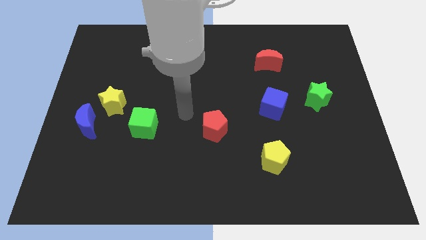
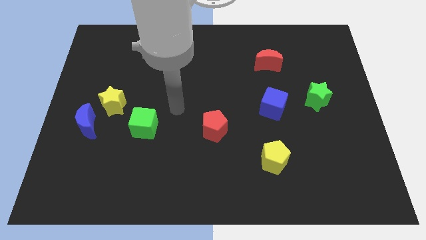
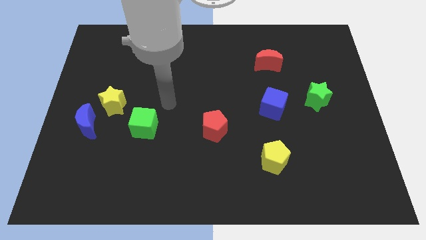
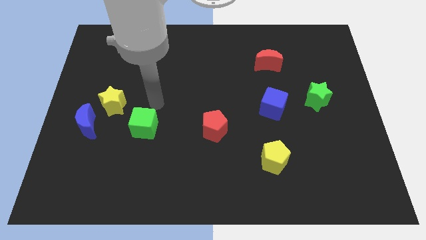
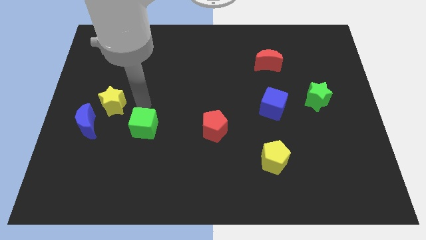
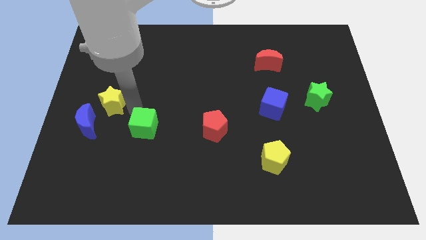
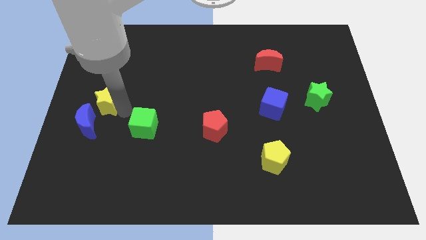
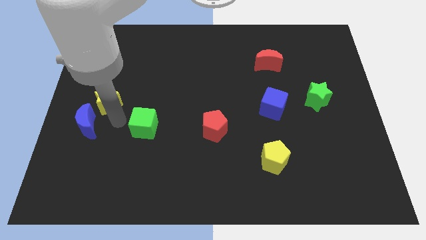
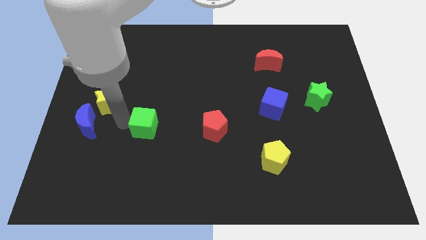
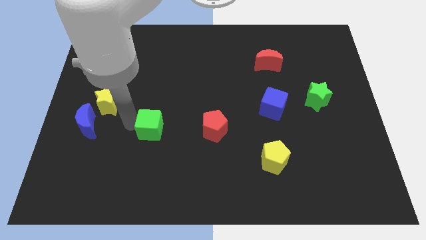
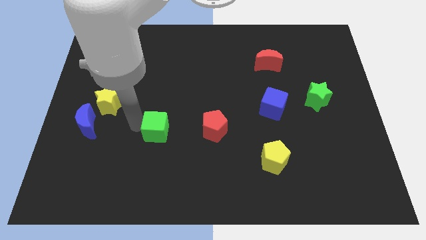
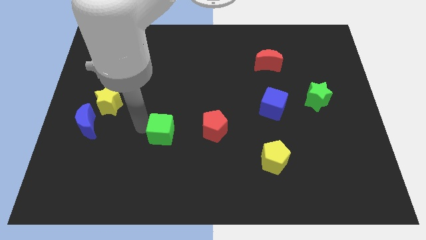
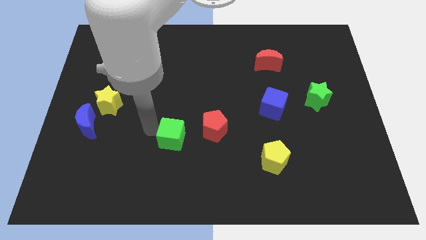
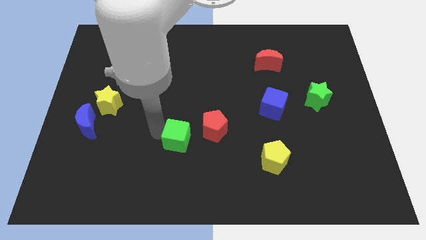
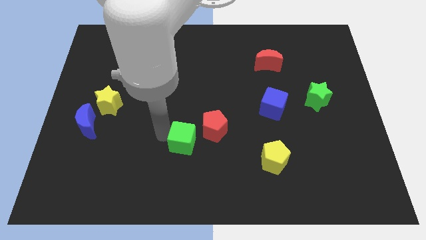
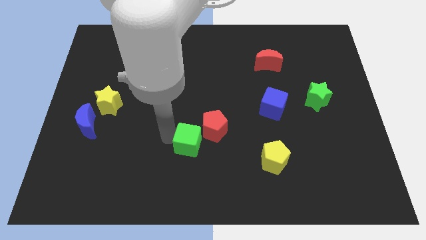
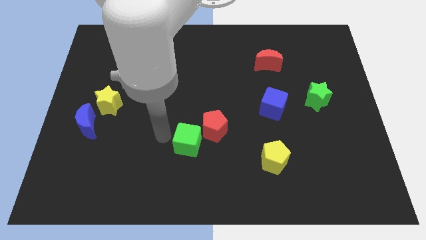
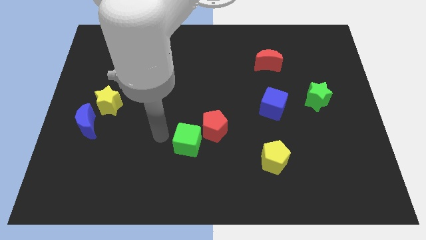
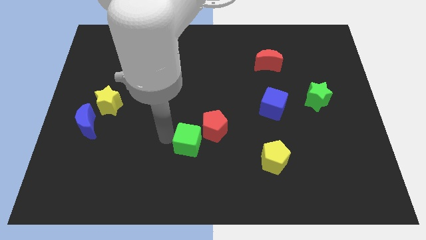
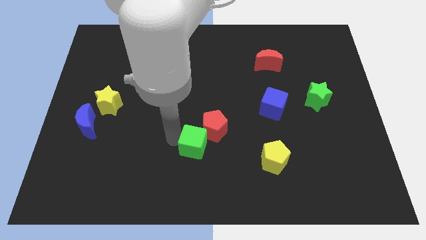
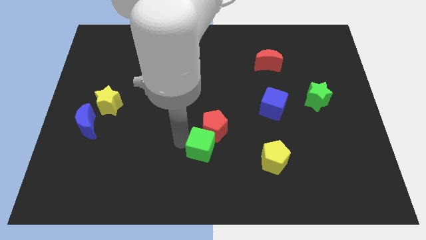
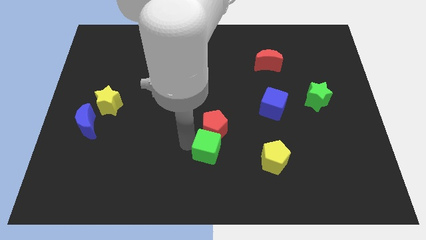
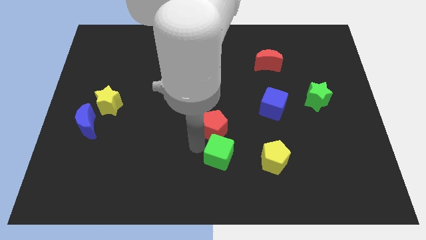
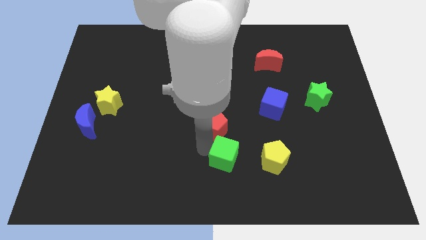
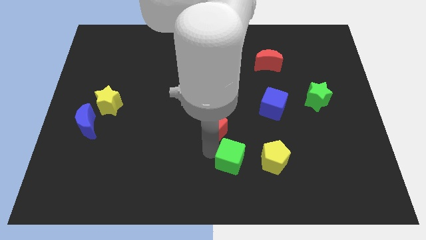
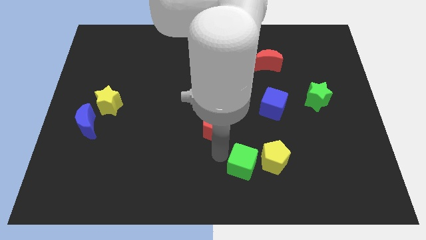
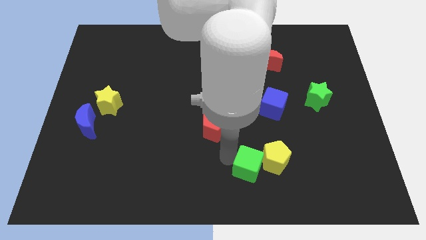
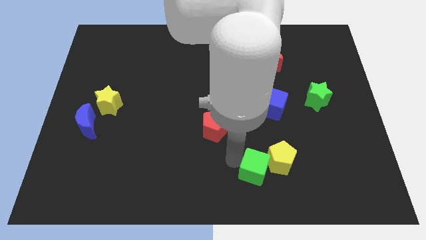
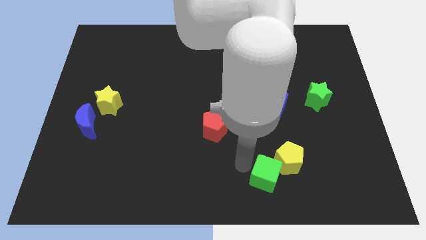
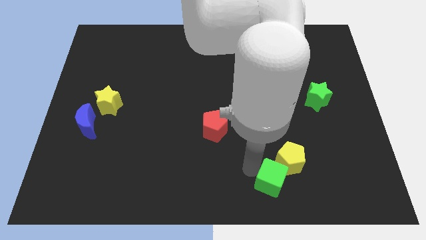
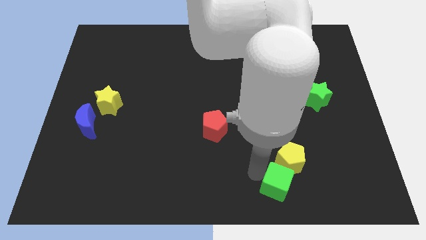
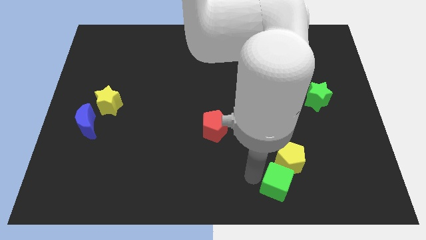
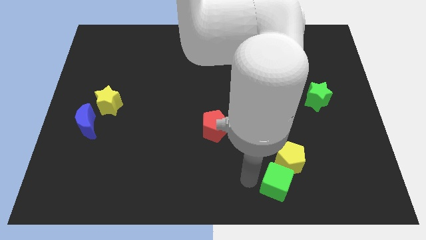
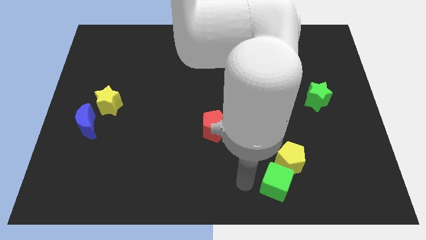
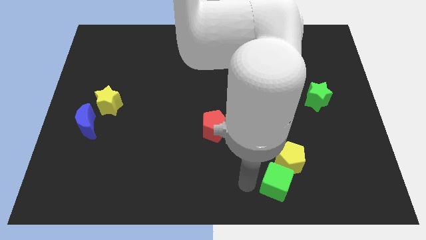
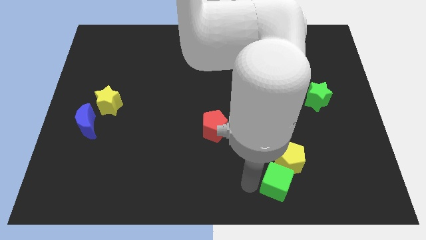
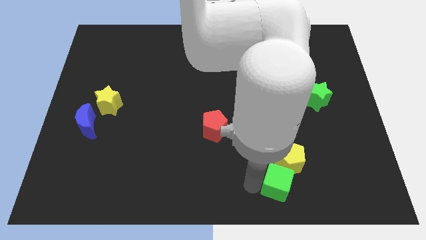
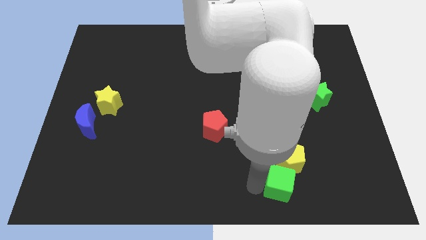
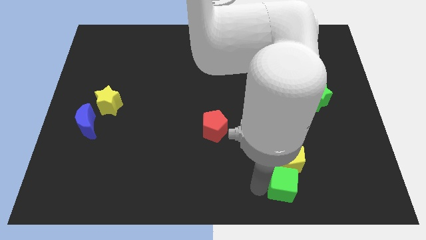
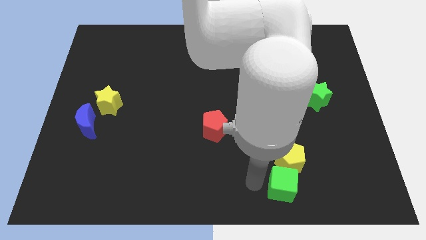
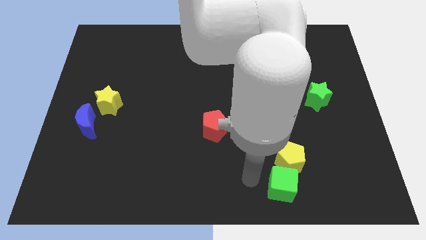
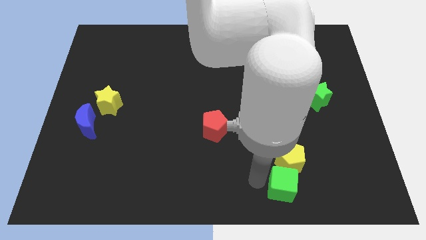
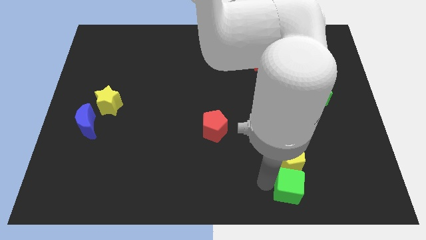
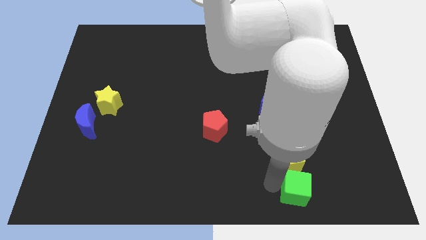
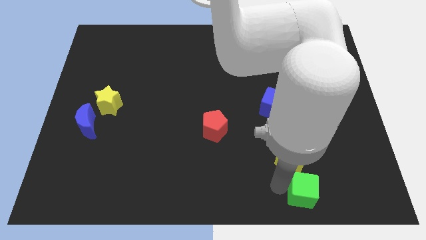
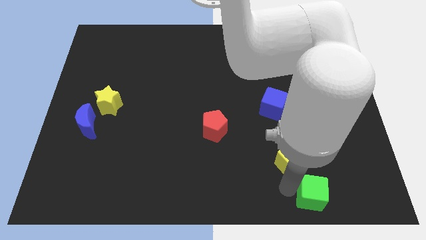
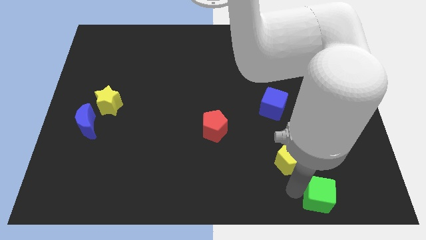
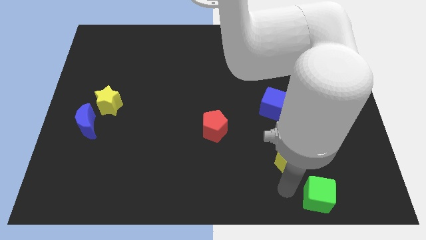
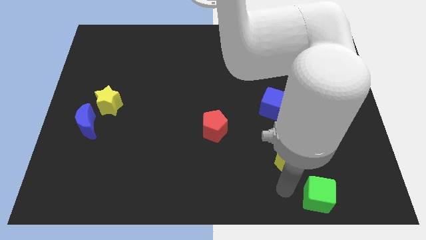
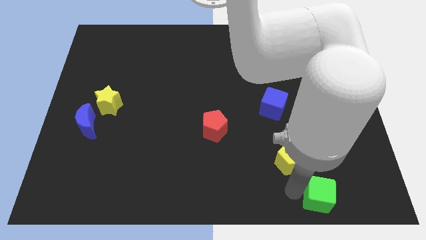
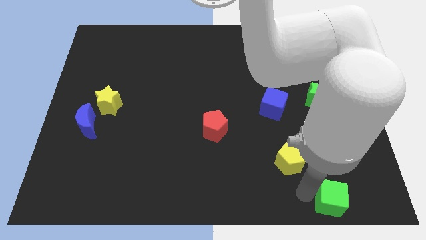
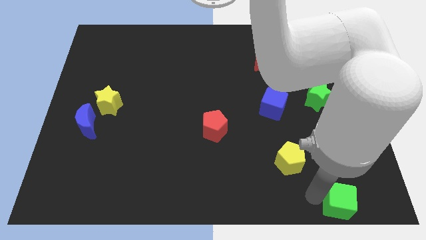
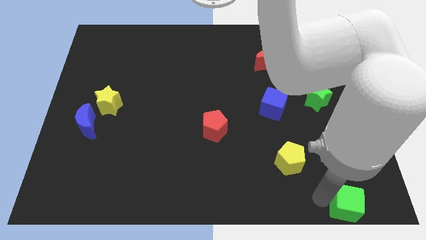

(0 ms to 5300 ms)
put the green cube to the bottom right

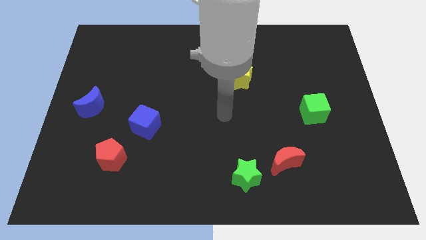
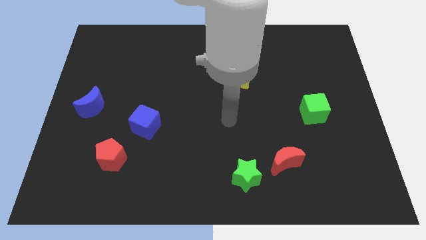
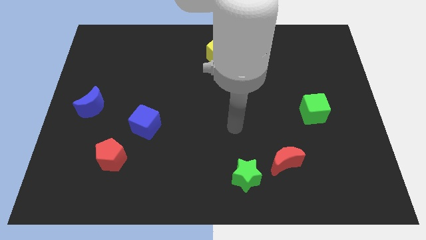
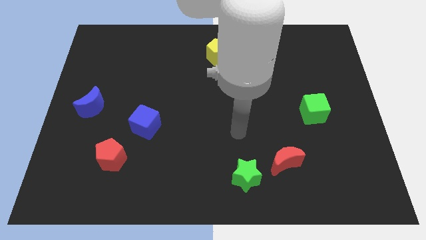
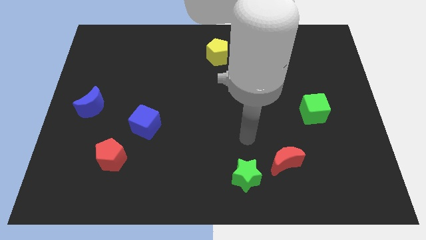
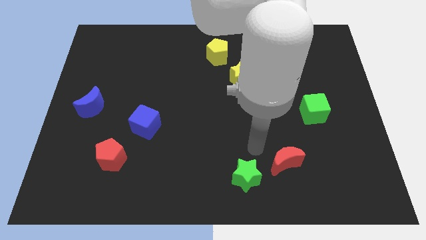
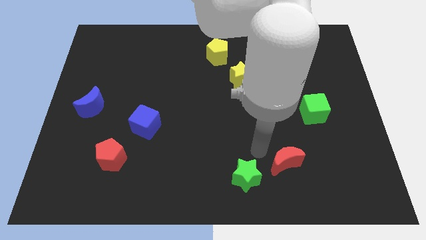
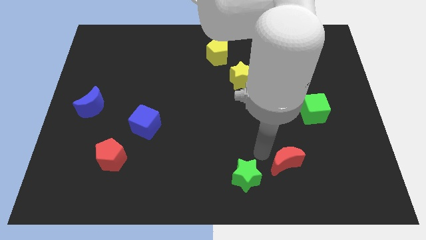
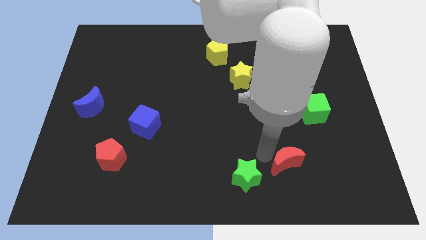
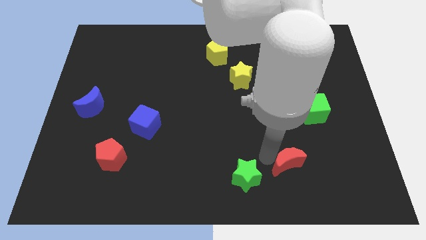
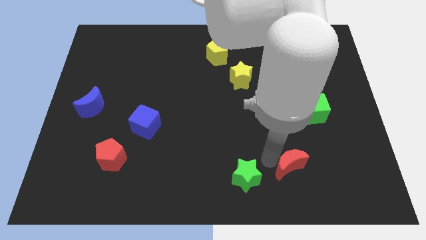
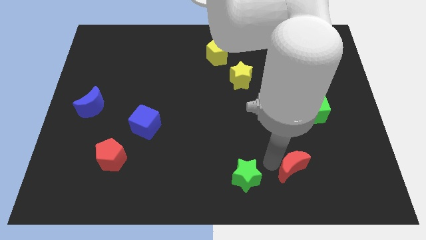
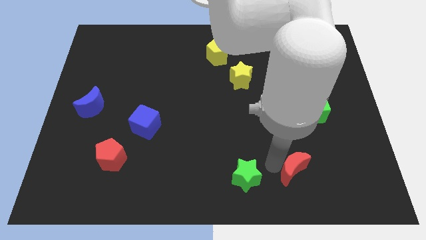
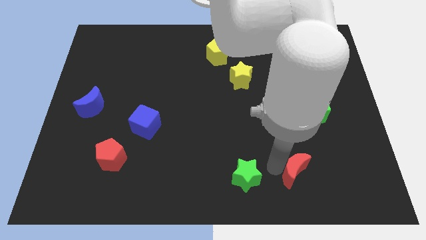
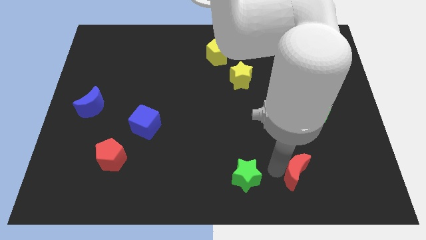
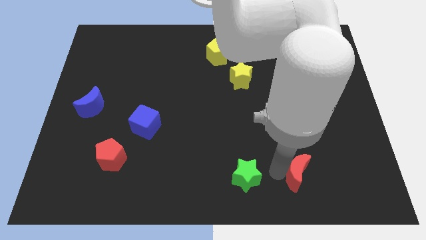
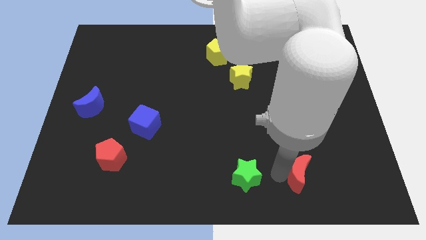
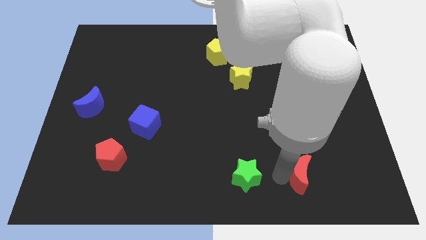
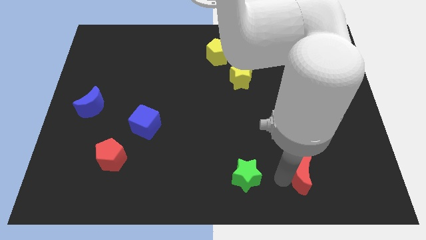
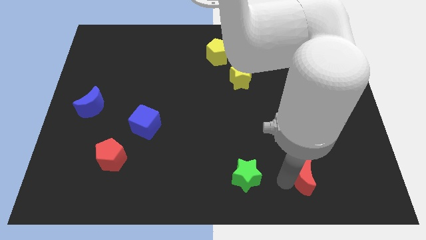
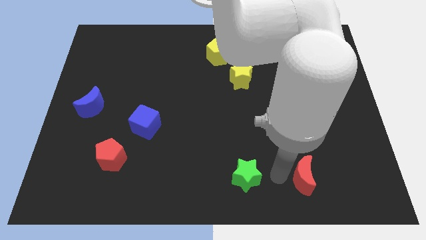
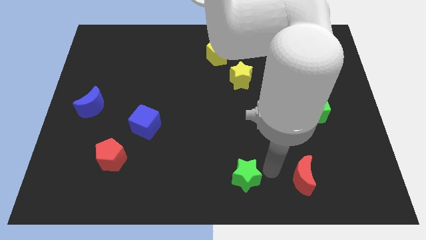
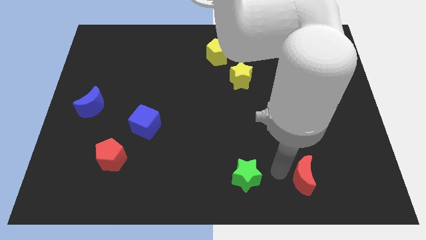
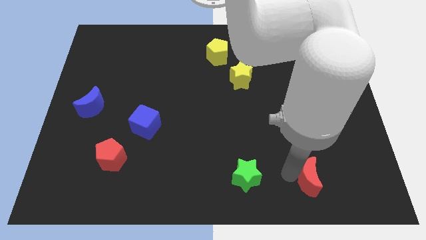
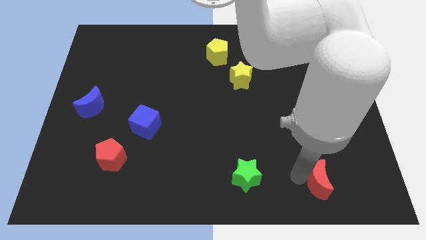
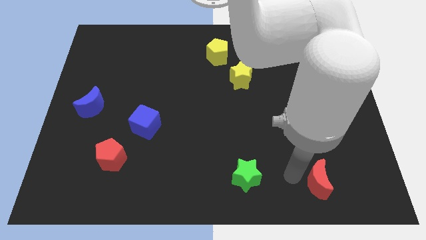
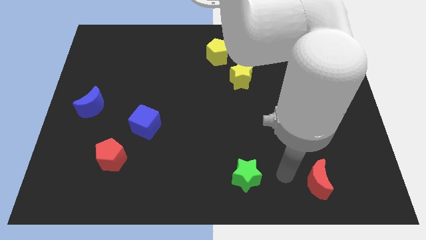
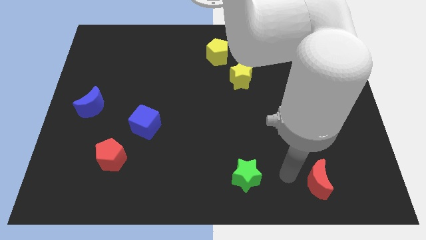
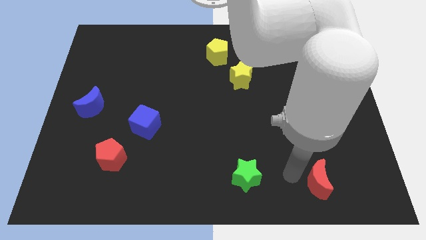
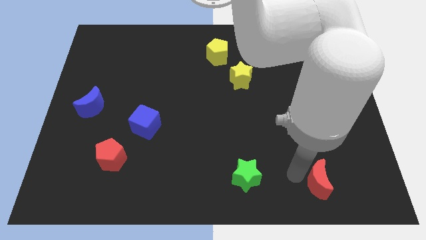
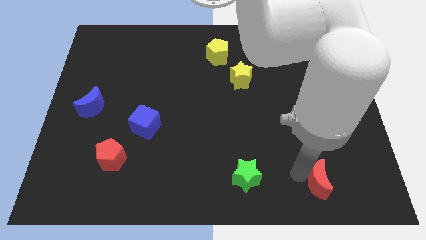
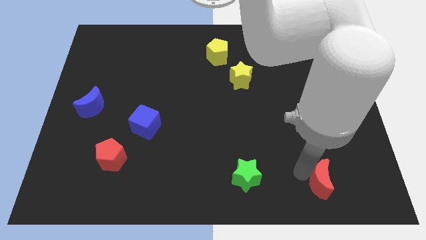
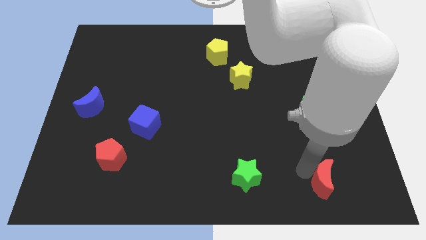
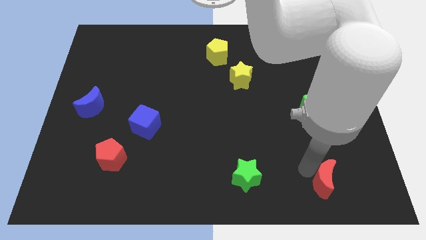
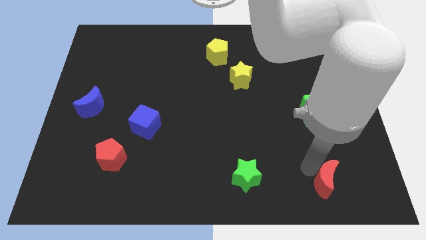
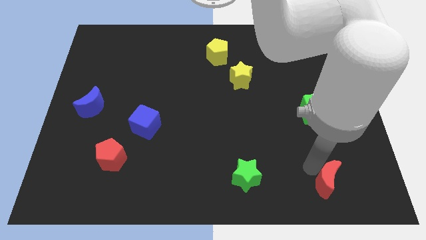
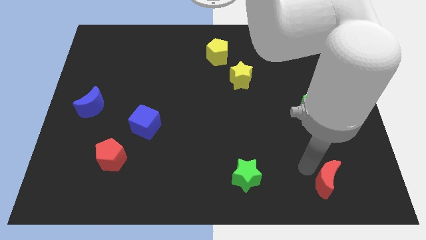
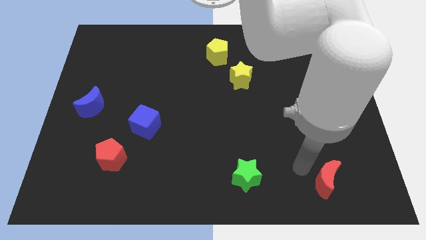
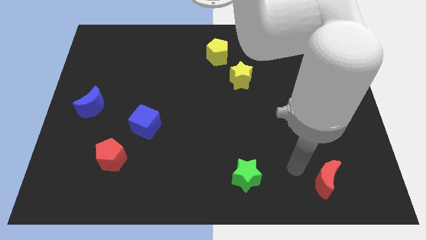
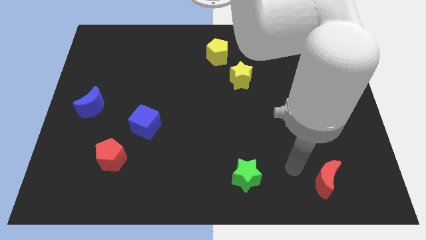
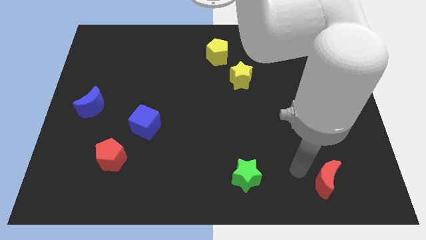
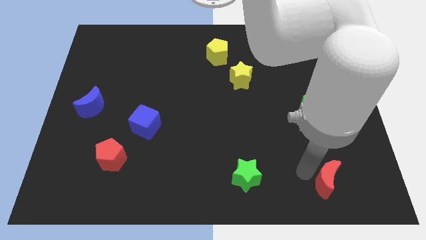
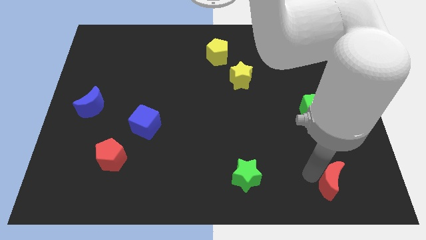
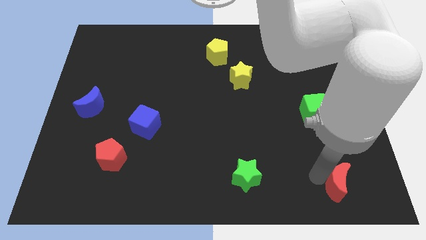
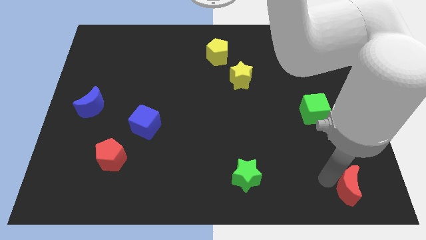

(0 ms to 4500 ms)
slide the red moon to the lower right corner
